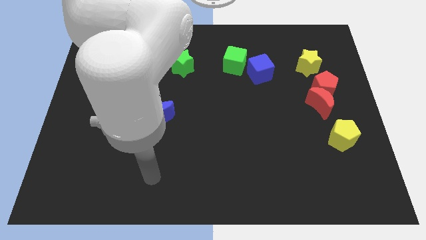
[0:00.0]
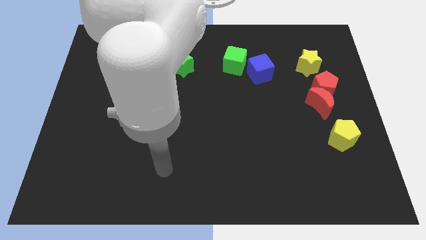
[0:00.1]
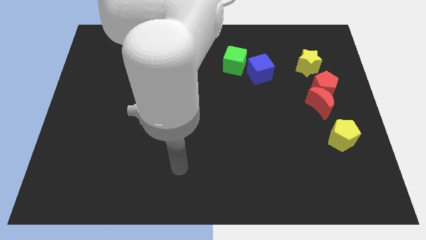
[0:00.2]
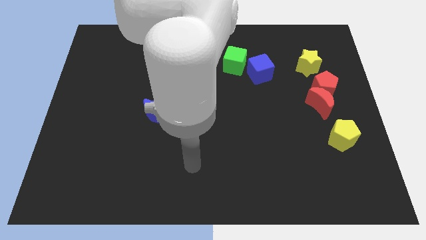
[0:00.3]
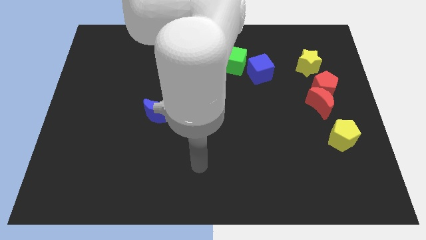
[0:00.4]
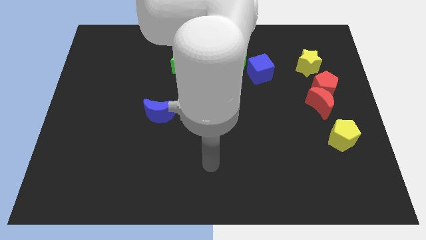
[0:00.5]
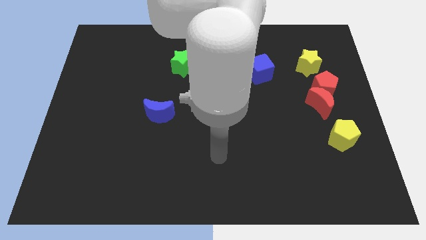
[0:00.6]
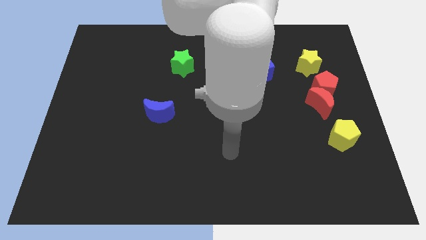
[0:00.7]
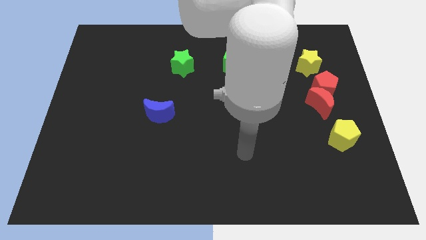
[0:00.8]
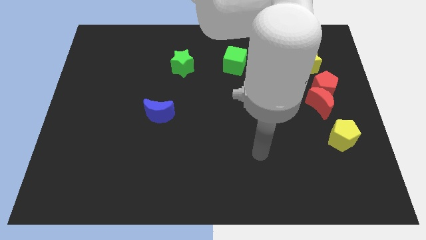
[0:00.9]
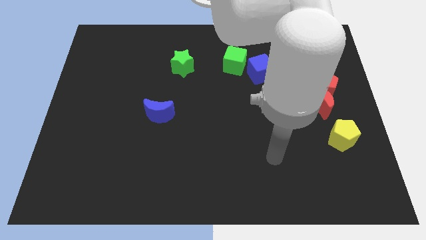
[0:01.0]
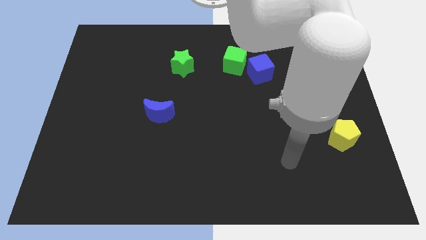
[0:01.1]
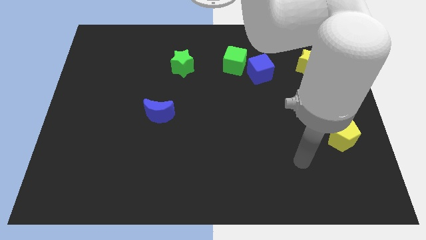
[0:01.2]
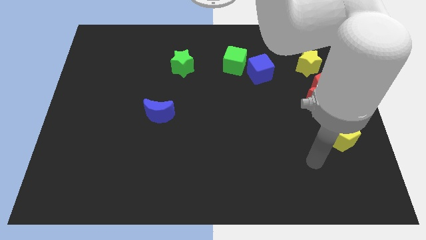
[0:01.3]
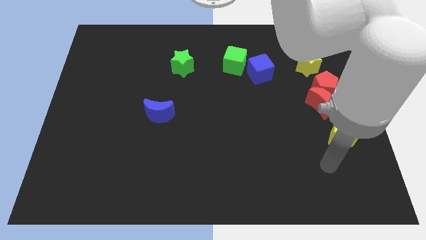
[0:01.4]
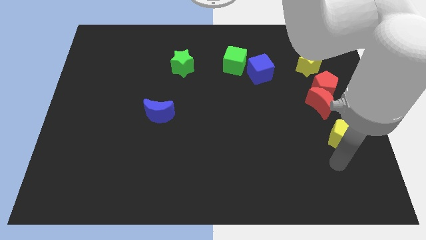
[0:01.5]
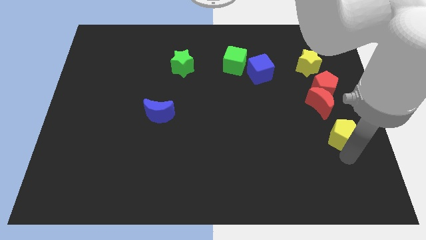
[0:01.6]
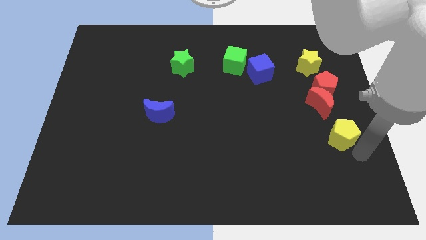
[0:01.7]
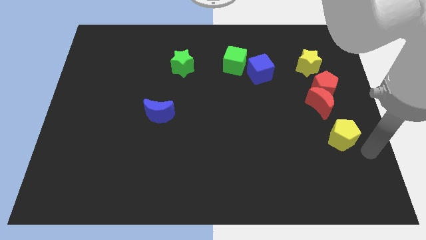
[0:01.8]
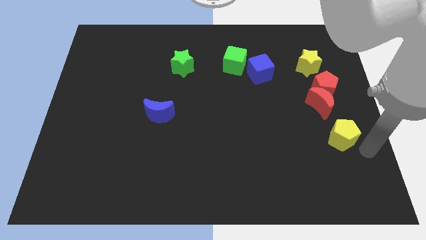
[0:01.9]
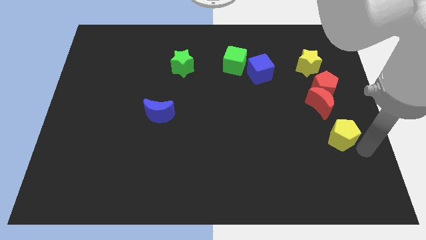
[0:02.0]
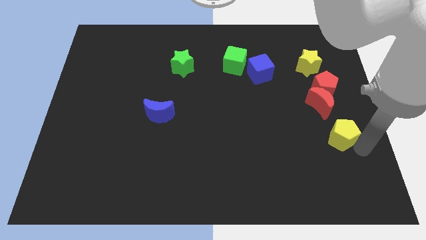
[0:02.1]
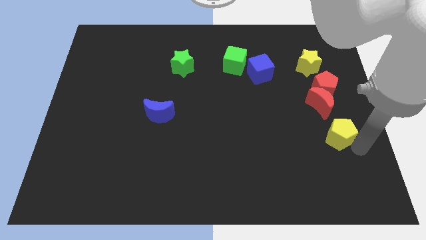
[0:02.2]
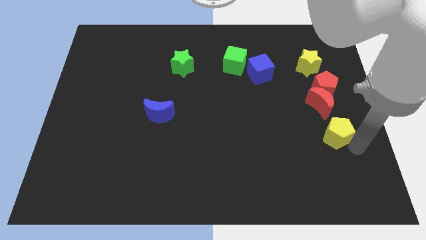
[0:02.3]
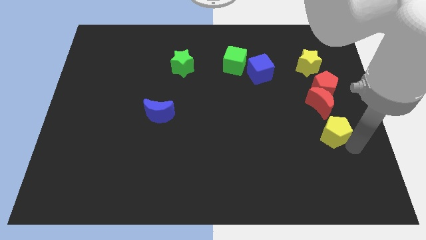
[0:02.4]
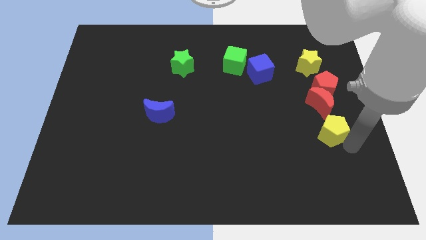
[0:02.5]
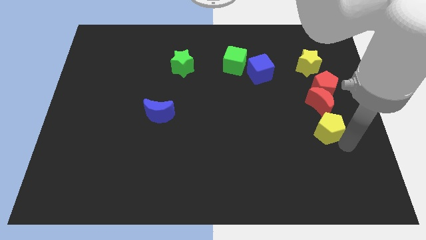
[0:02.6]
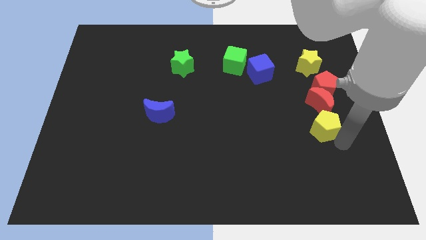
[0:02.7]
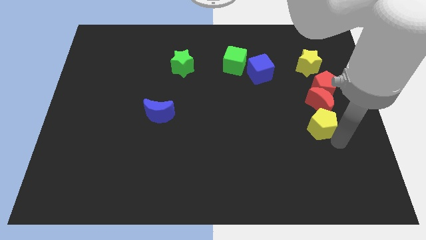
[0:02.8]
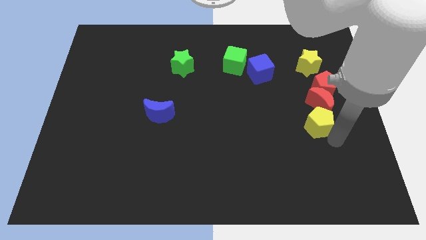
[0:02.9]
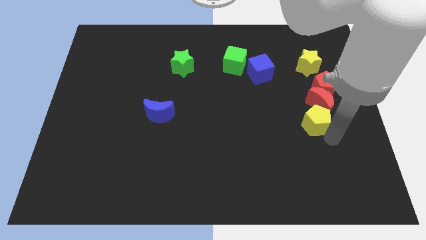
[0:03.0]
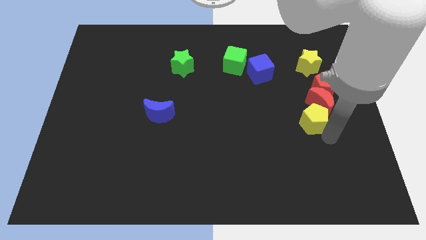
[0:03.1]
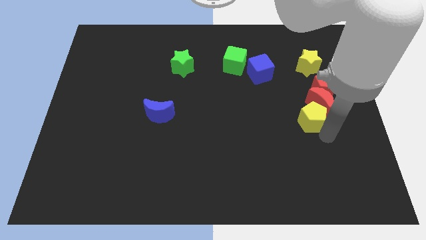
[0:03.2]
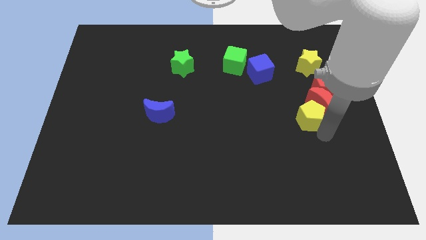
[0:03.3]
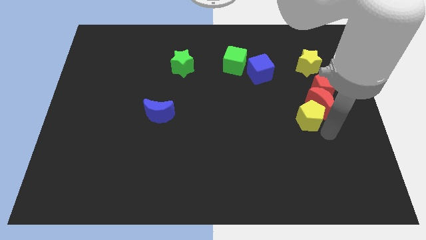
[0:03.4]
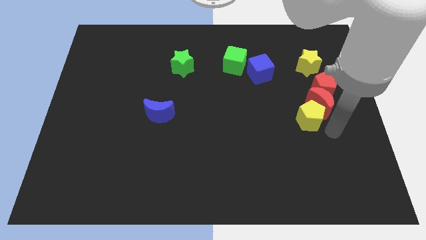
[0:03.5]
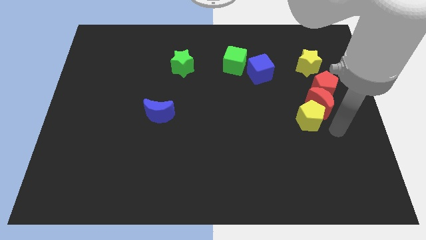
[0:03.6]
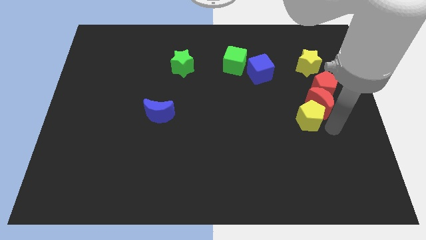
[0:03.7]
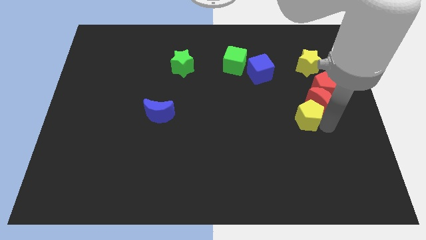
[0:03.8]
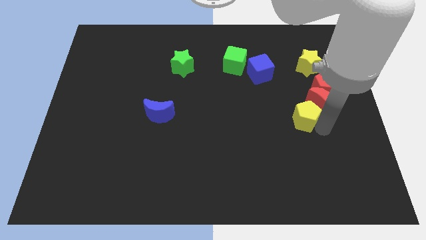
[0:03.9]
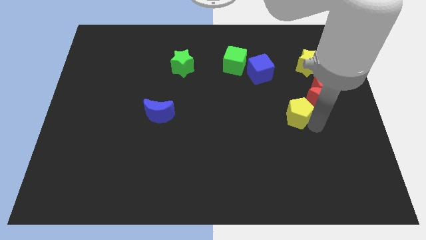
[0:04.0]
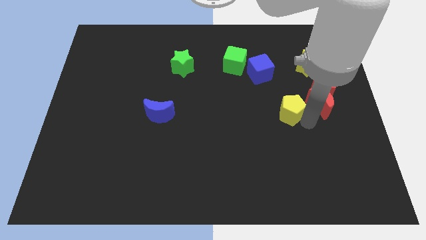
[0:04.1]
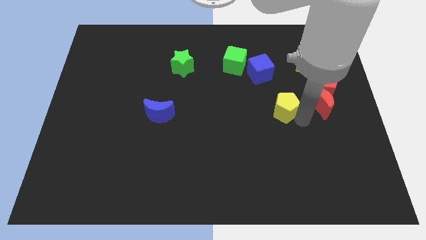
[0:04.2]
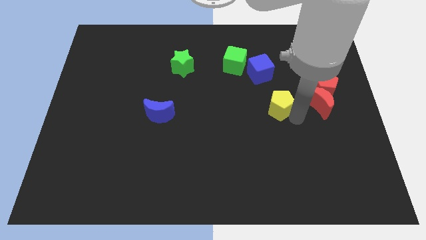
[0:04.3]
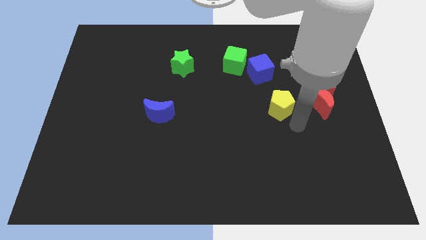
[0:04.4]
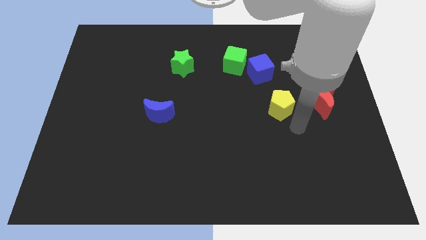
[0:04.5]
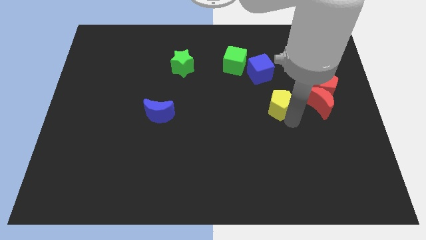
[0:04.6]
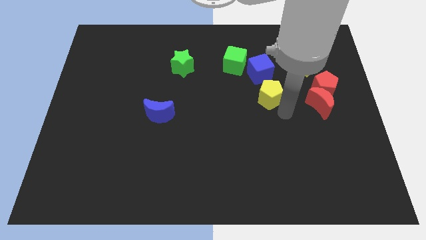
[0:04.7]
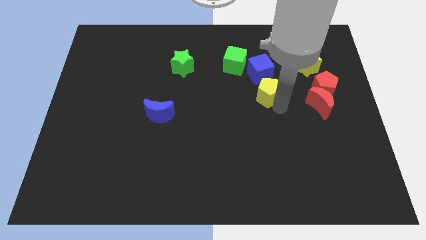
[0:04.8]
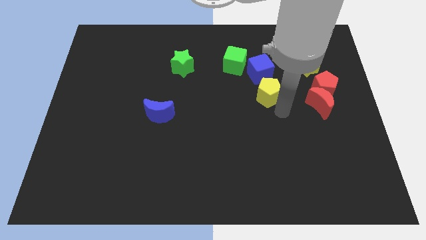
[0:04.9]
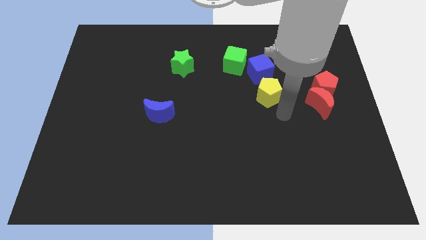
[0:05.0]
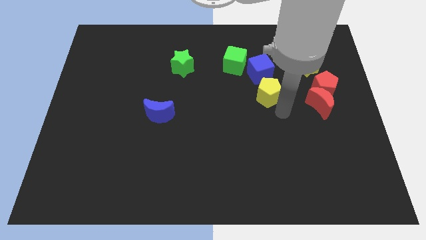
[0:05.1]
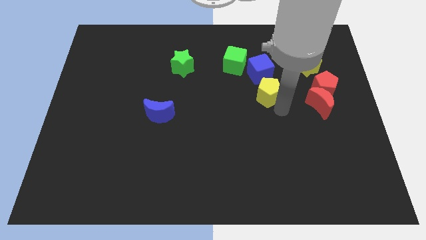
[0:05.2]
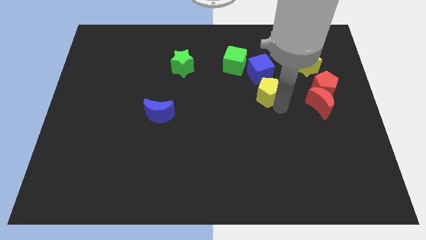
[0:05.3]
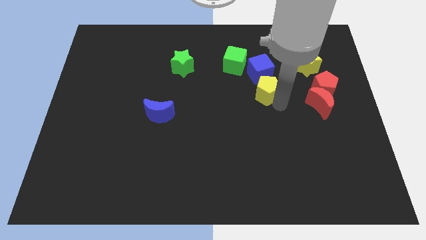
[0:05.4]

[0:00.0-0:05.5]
push the yellow pentagon diagonally down and to the right of the green cube

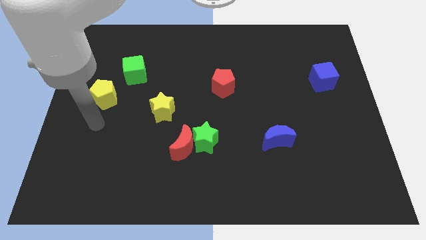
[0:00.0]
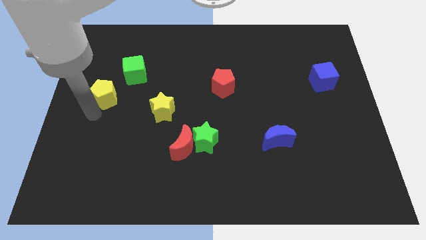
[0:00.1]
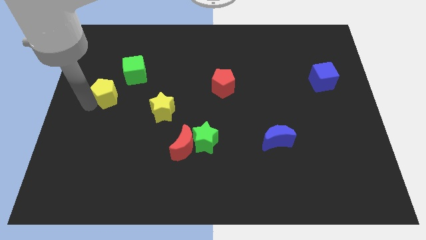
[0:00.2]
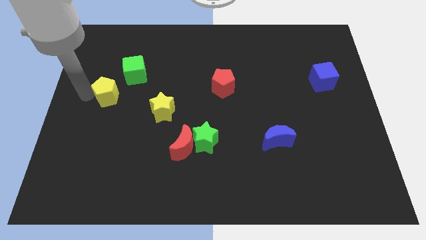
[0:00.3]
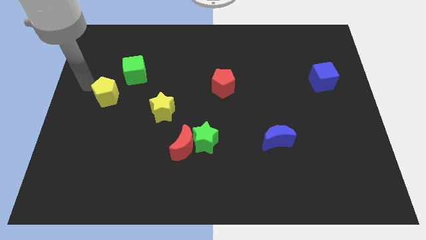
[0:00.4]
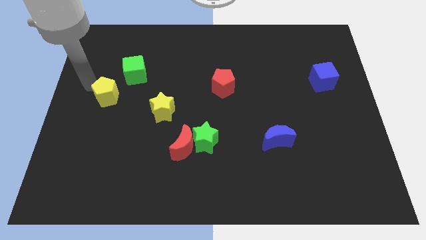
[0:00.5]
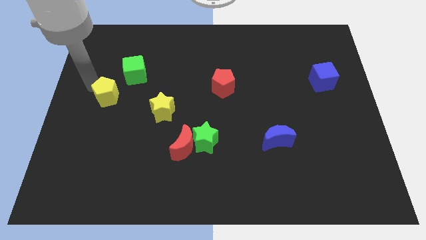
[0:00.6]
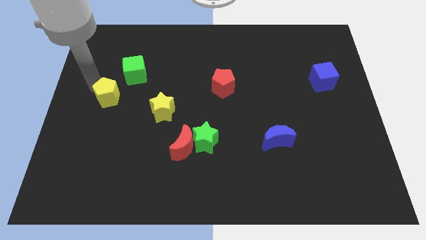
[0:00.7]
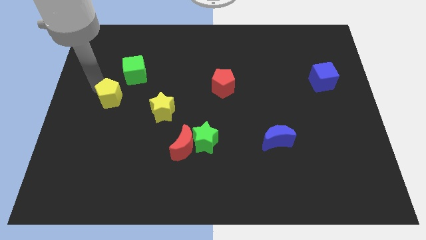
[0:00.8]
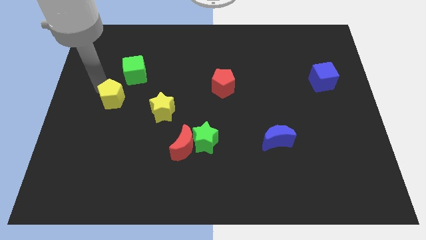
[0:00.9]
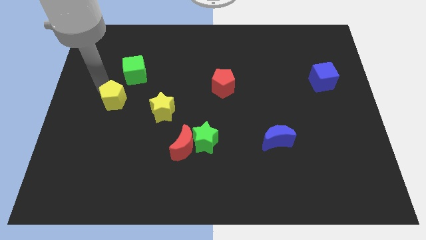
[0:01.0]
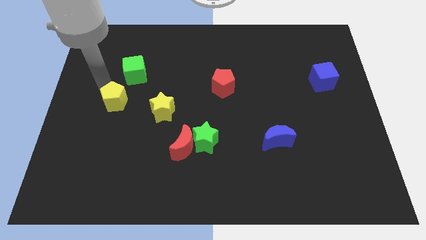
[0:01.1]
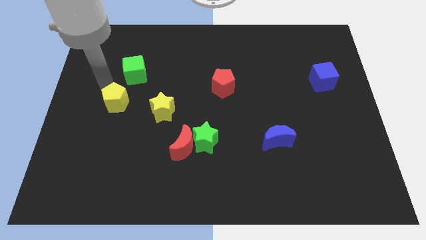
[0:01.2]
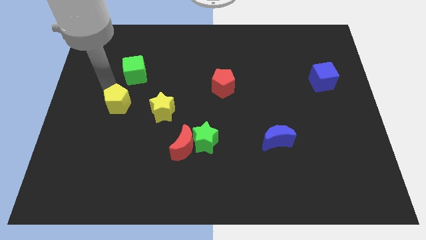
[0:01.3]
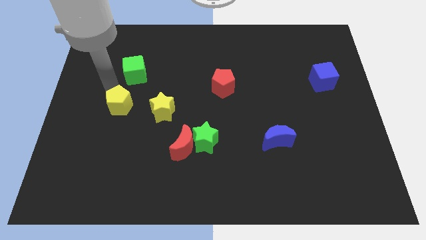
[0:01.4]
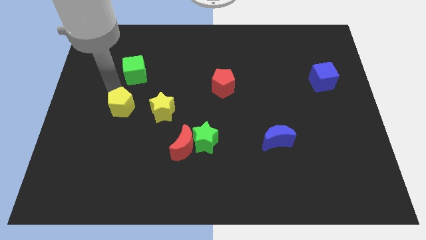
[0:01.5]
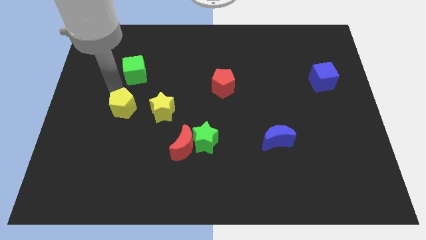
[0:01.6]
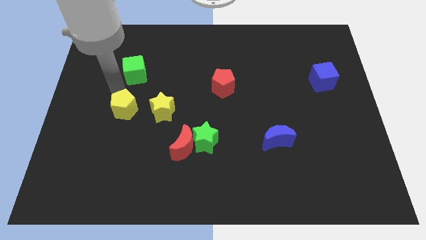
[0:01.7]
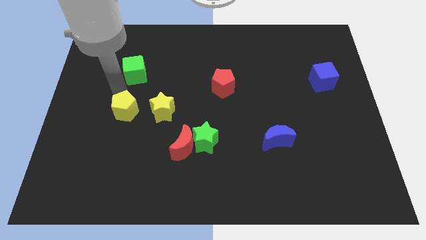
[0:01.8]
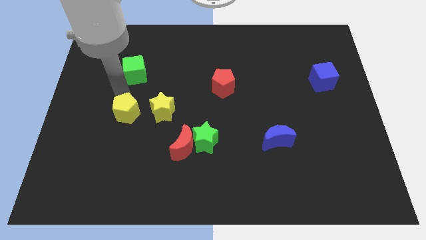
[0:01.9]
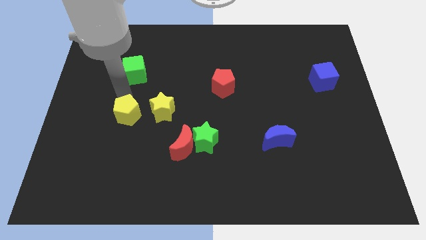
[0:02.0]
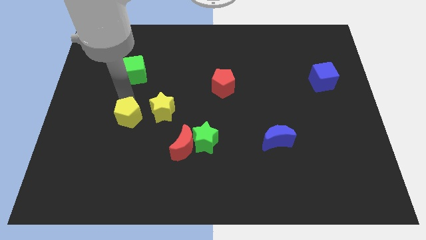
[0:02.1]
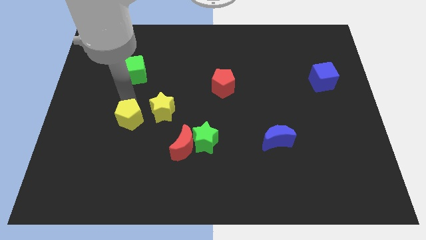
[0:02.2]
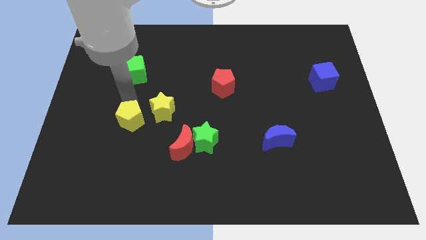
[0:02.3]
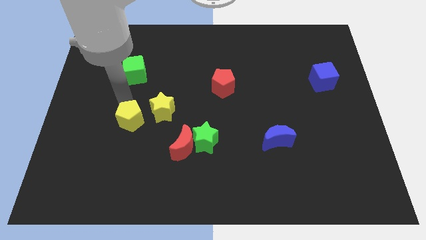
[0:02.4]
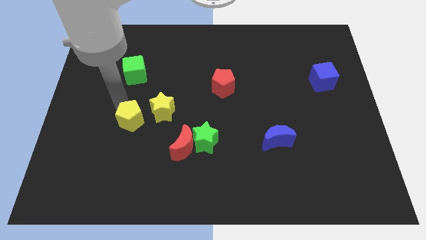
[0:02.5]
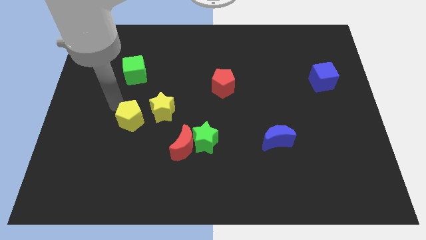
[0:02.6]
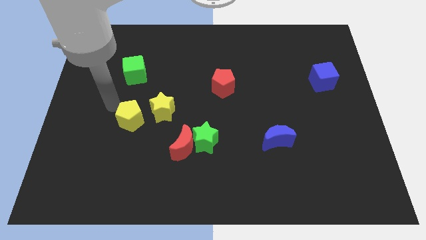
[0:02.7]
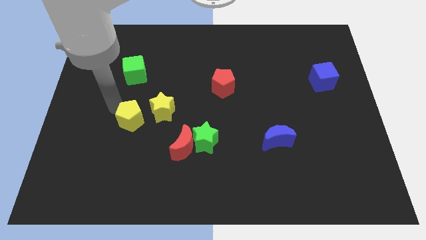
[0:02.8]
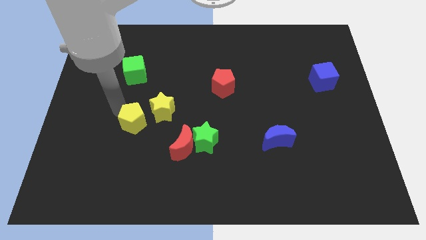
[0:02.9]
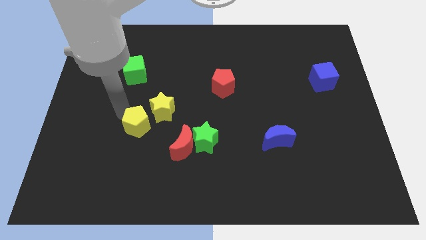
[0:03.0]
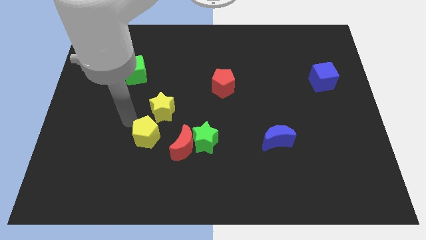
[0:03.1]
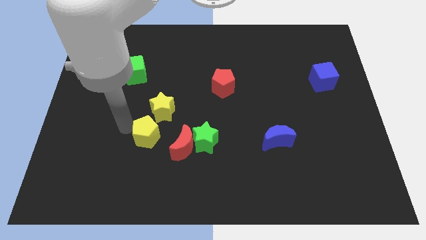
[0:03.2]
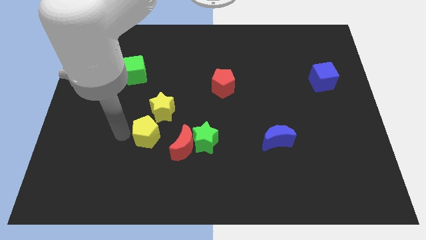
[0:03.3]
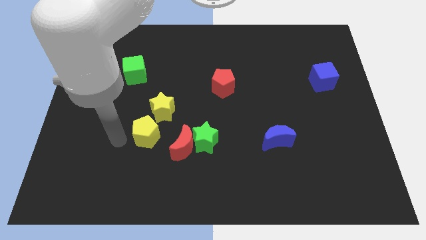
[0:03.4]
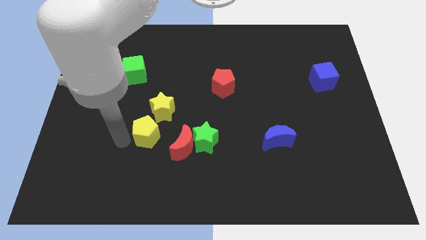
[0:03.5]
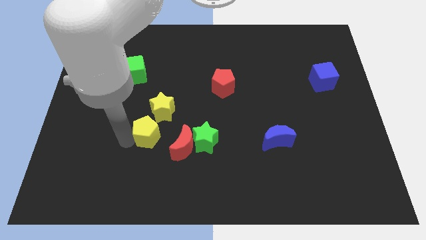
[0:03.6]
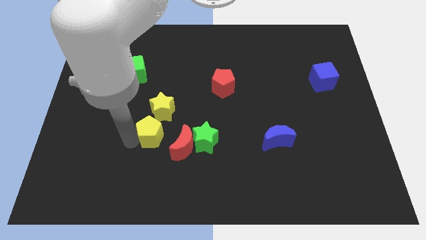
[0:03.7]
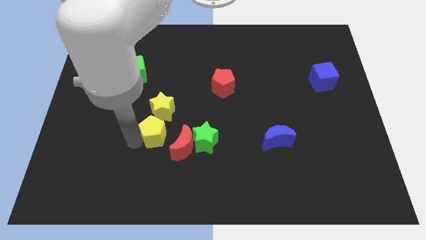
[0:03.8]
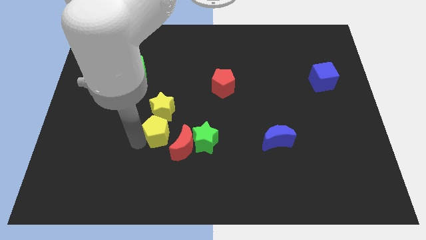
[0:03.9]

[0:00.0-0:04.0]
slide the yellow pentagon diagonally down and to the right of the yellow star
